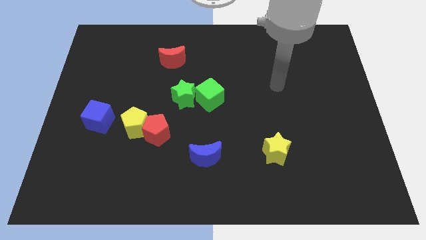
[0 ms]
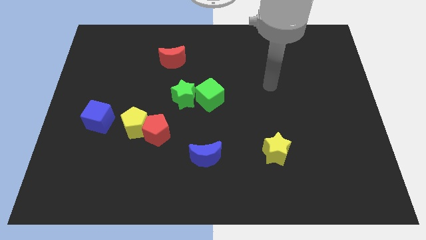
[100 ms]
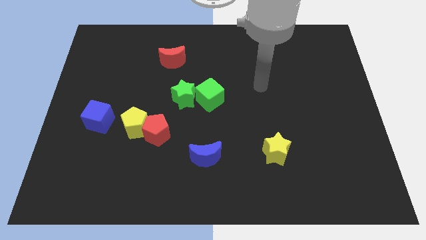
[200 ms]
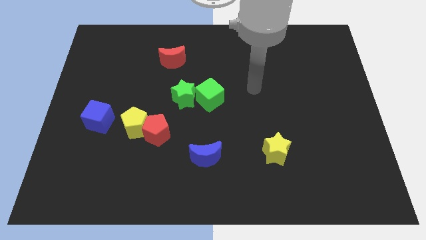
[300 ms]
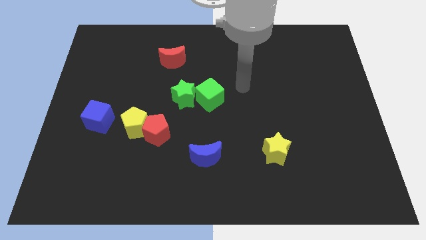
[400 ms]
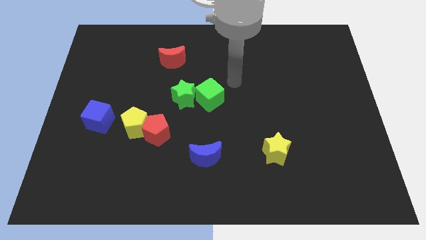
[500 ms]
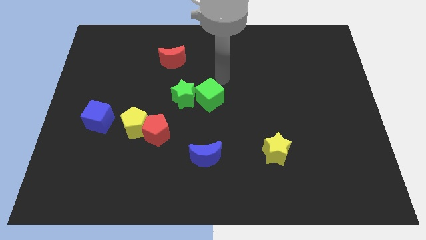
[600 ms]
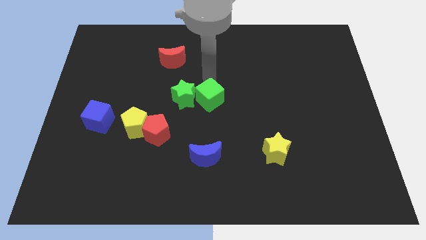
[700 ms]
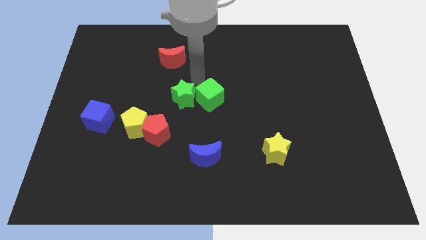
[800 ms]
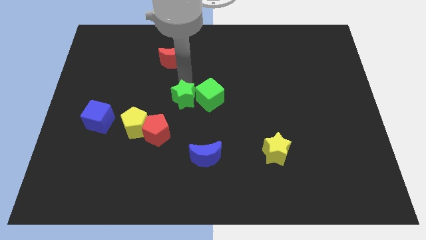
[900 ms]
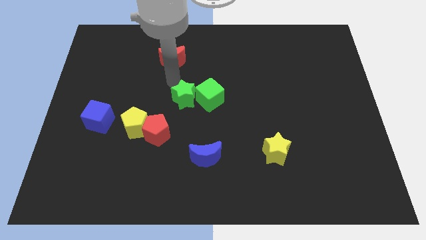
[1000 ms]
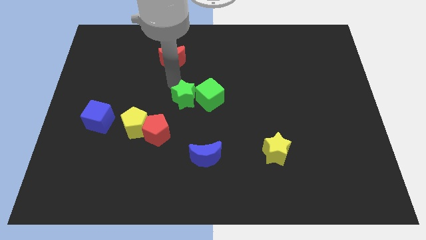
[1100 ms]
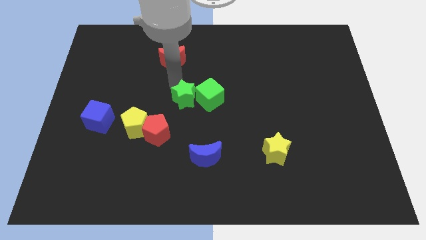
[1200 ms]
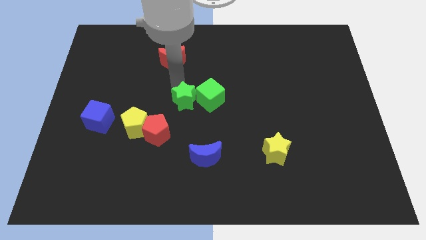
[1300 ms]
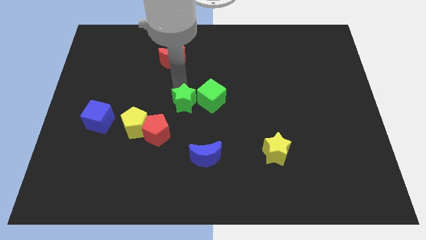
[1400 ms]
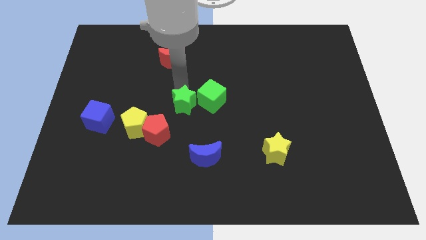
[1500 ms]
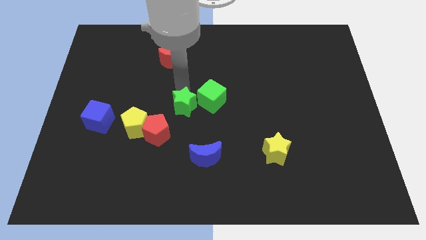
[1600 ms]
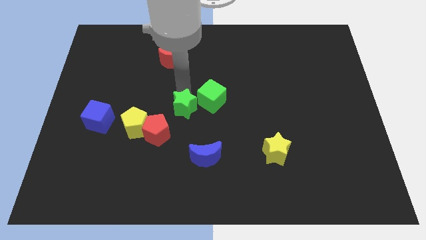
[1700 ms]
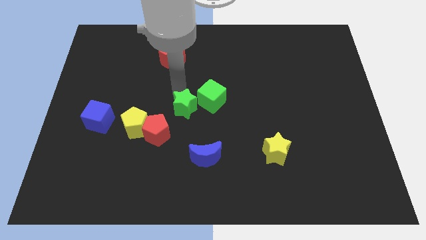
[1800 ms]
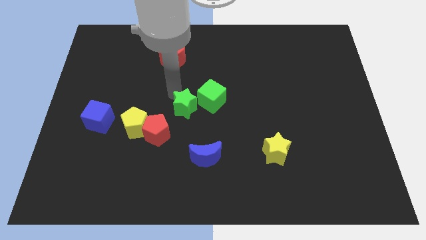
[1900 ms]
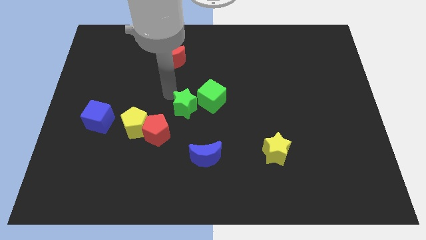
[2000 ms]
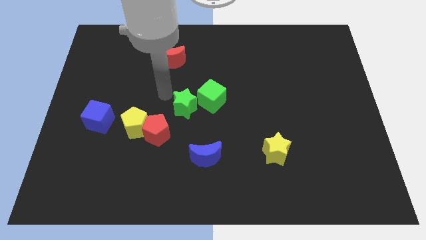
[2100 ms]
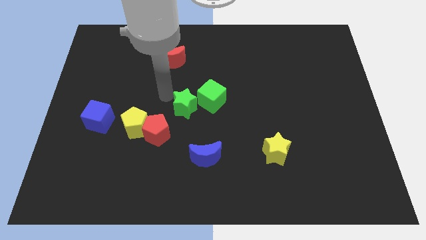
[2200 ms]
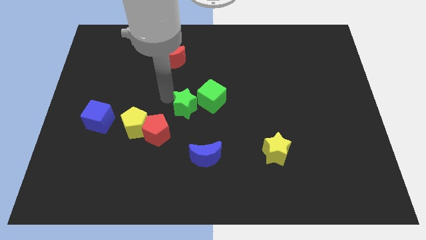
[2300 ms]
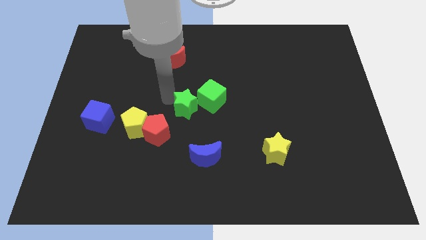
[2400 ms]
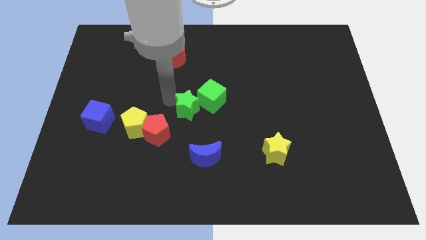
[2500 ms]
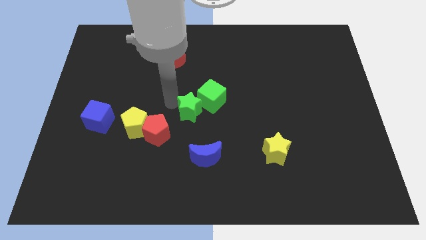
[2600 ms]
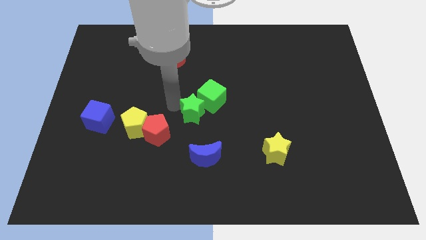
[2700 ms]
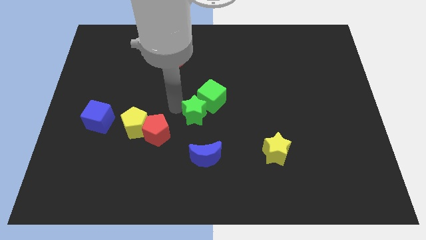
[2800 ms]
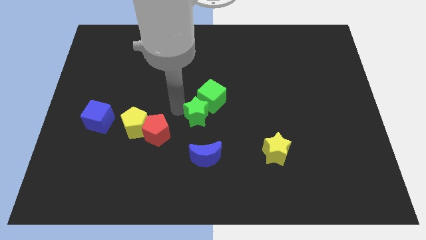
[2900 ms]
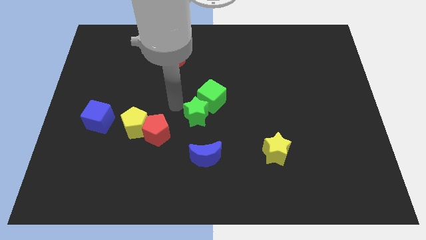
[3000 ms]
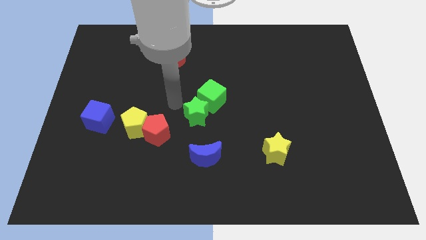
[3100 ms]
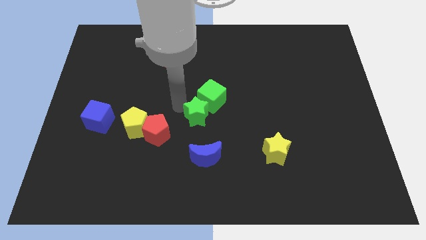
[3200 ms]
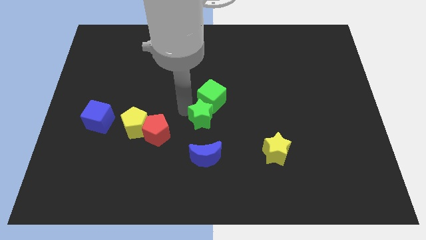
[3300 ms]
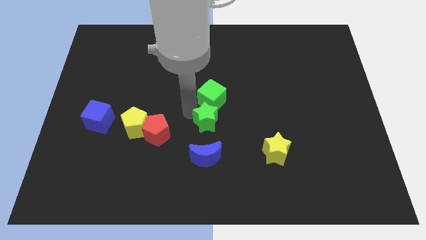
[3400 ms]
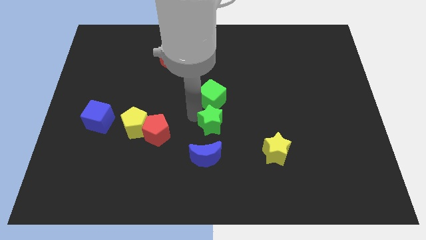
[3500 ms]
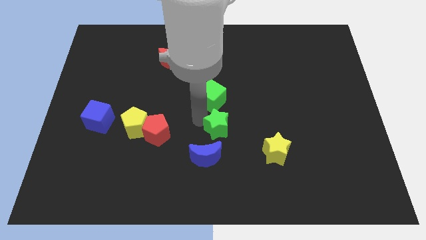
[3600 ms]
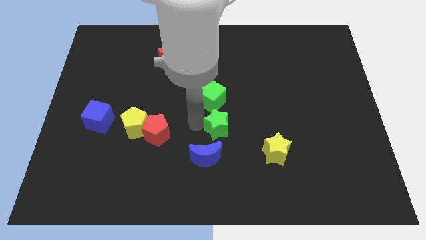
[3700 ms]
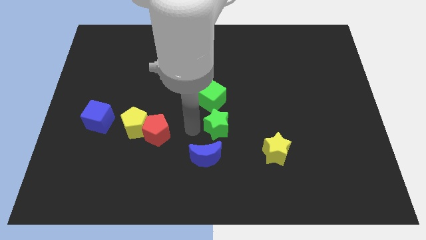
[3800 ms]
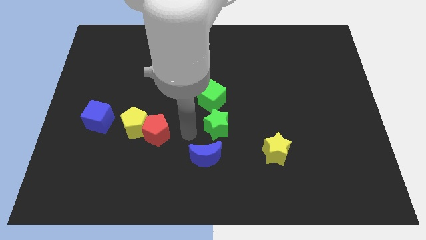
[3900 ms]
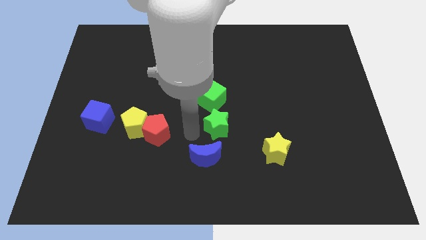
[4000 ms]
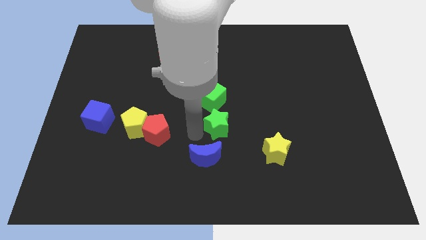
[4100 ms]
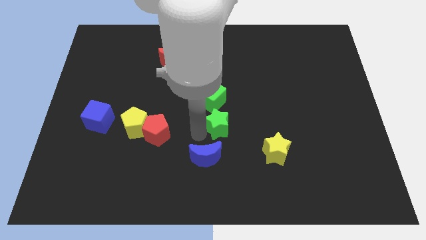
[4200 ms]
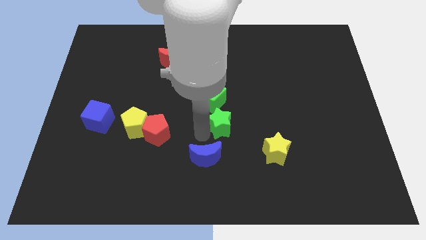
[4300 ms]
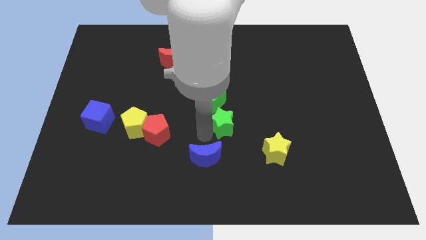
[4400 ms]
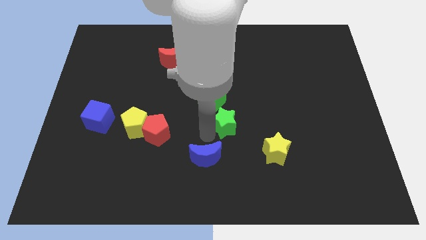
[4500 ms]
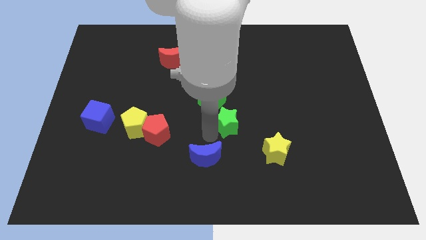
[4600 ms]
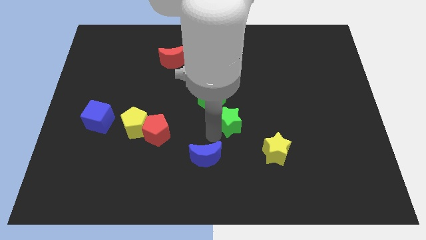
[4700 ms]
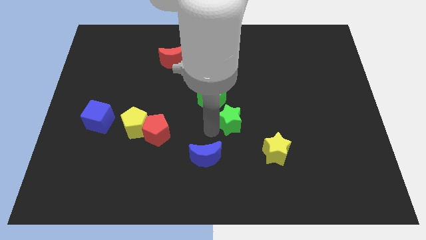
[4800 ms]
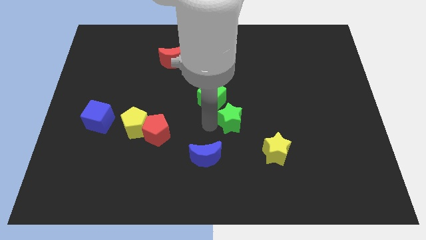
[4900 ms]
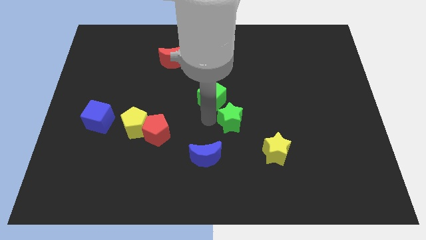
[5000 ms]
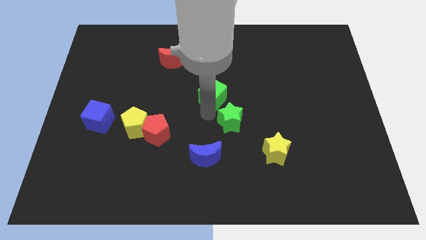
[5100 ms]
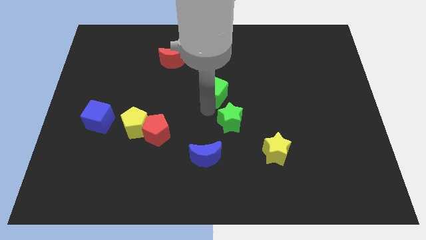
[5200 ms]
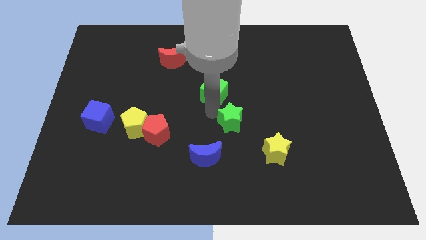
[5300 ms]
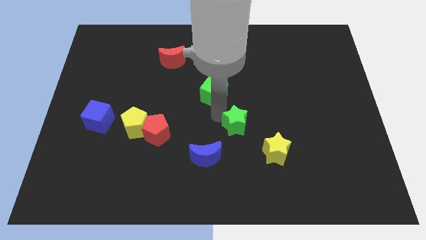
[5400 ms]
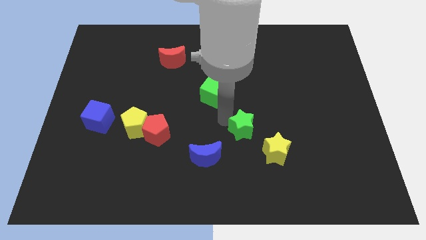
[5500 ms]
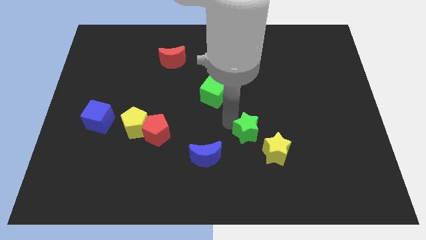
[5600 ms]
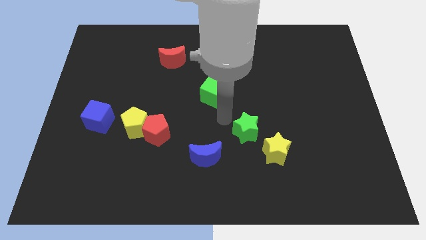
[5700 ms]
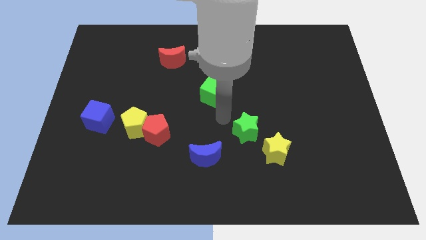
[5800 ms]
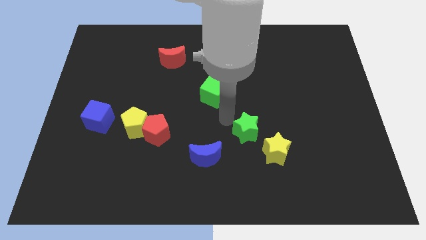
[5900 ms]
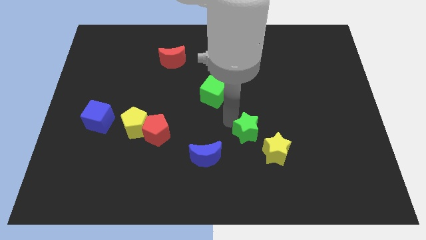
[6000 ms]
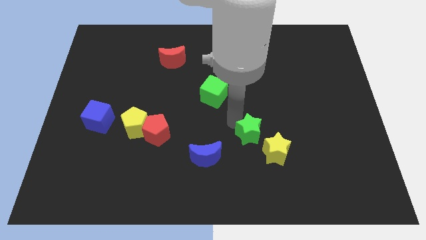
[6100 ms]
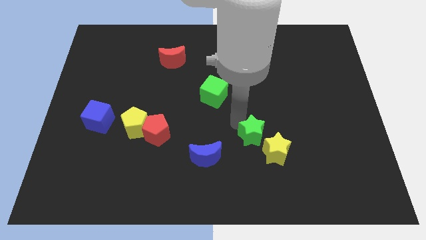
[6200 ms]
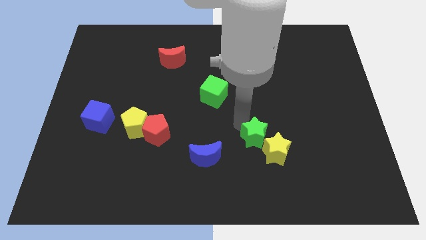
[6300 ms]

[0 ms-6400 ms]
push the green star next to the yellow star

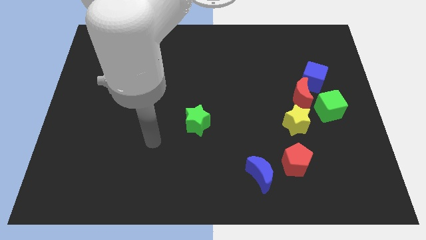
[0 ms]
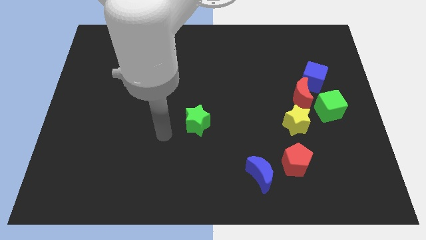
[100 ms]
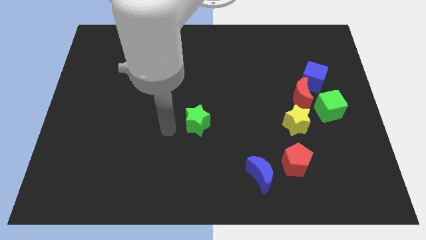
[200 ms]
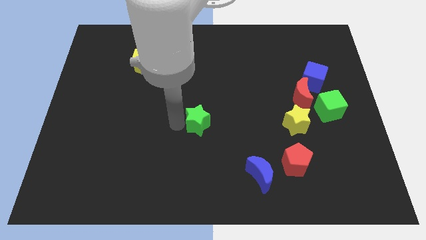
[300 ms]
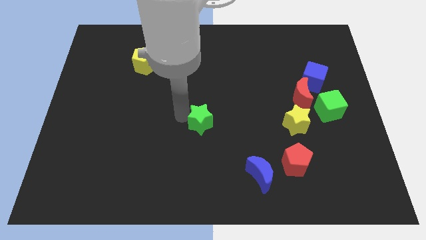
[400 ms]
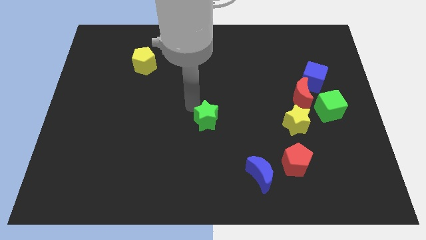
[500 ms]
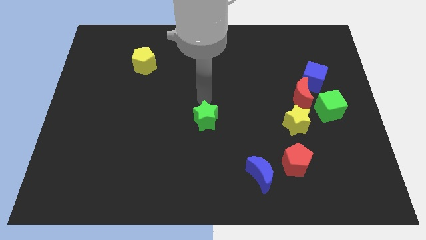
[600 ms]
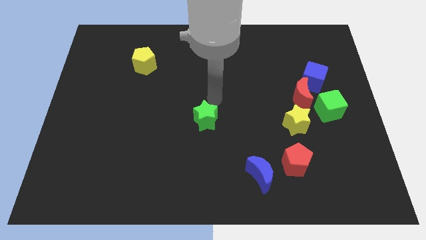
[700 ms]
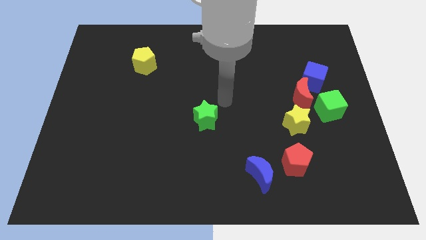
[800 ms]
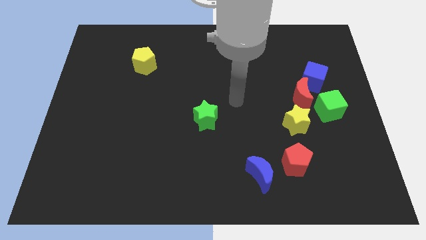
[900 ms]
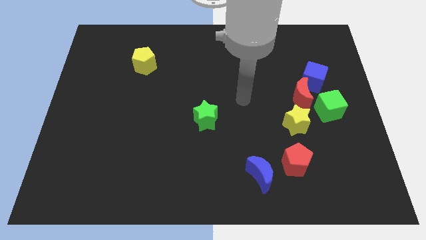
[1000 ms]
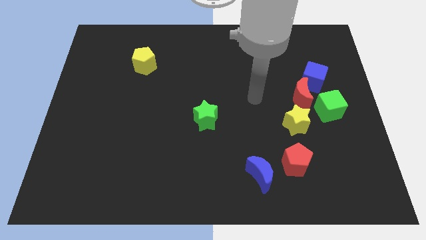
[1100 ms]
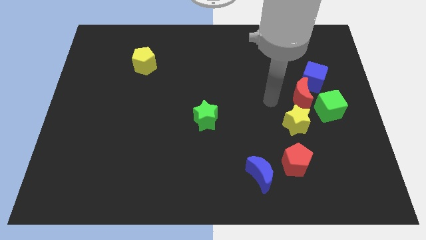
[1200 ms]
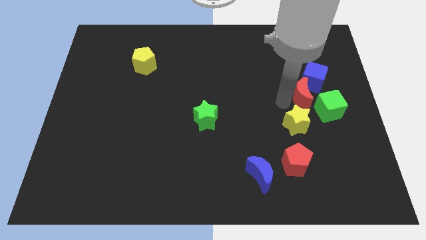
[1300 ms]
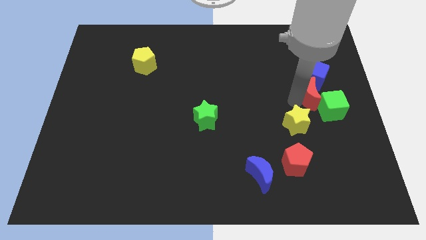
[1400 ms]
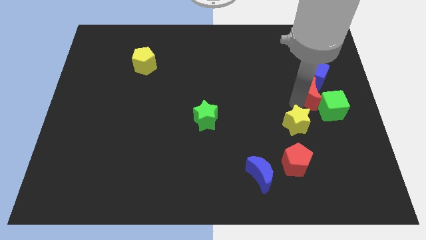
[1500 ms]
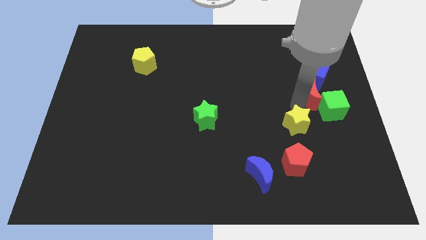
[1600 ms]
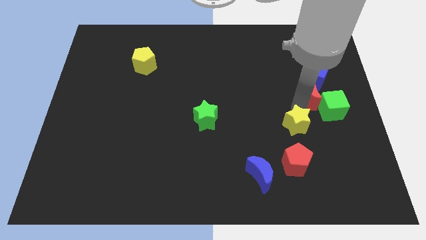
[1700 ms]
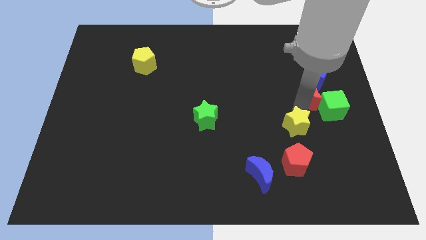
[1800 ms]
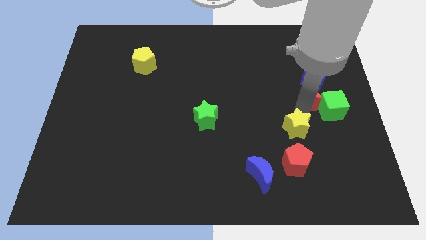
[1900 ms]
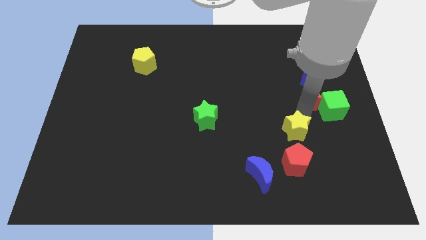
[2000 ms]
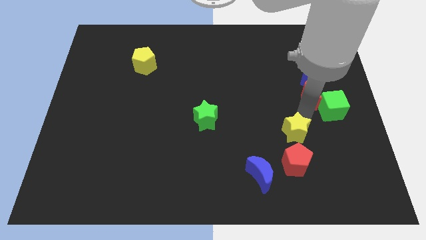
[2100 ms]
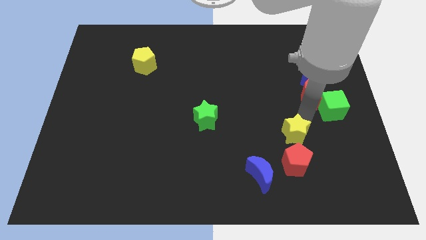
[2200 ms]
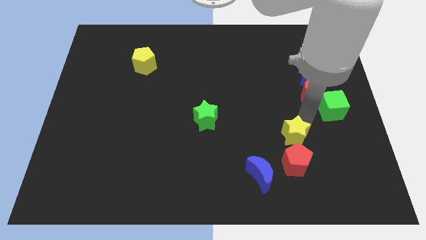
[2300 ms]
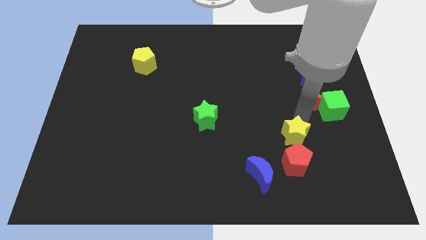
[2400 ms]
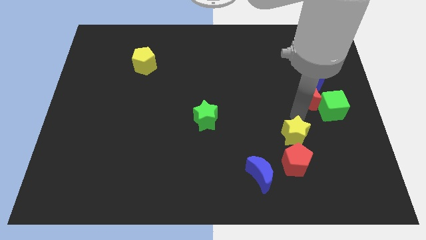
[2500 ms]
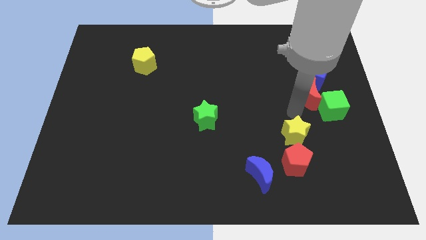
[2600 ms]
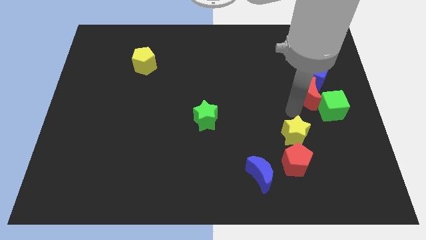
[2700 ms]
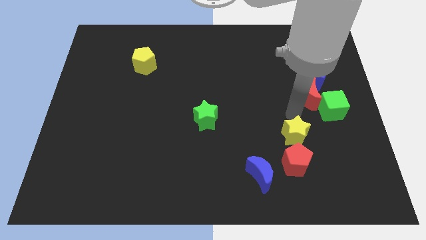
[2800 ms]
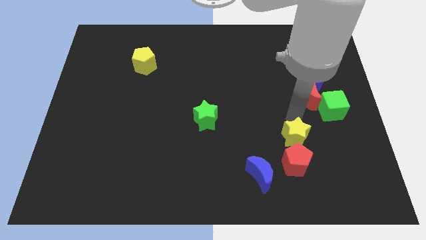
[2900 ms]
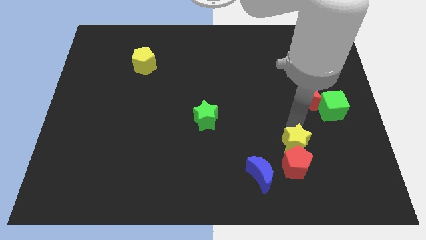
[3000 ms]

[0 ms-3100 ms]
slide the yellow star next to the red pentagon
